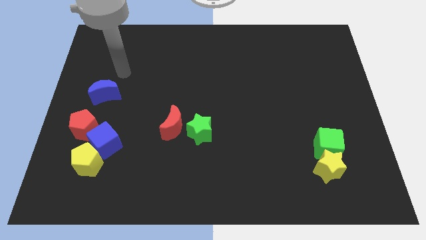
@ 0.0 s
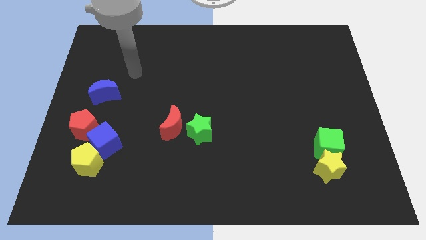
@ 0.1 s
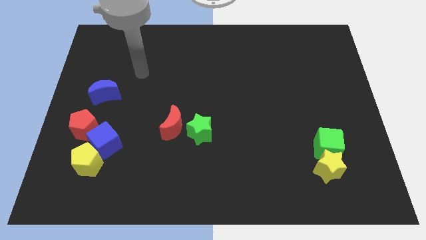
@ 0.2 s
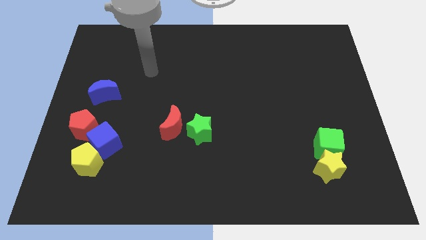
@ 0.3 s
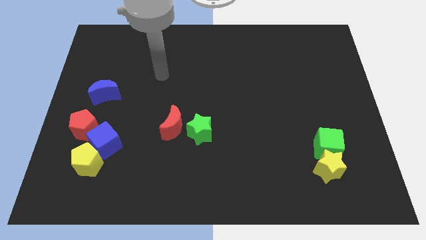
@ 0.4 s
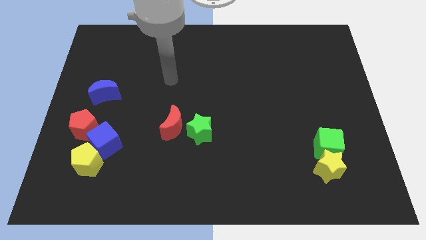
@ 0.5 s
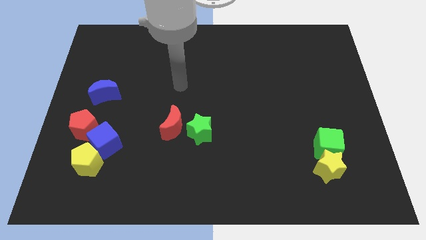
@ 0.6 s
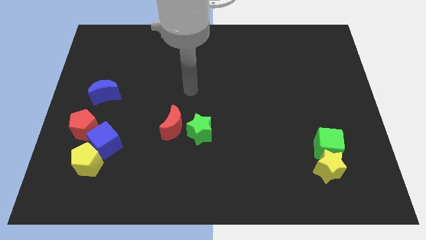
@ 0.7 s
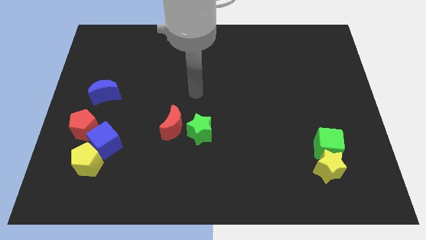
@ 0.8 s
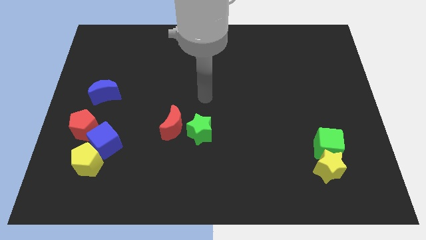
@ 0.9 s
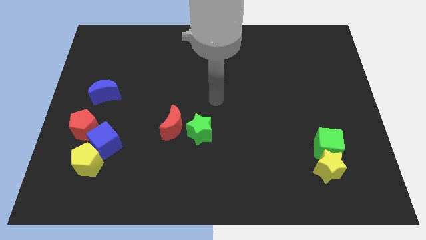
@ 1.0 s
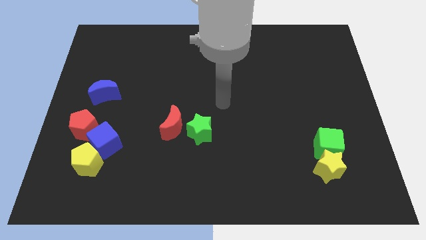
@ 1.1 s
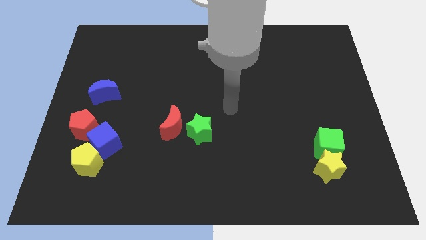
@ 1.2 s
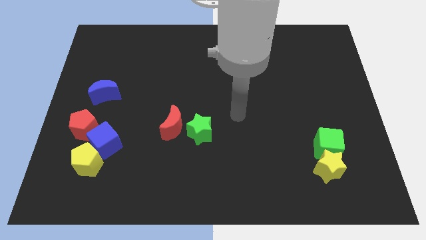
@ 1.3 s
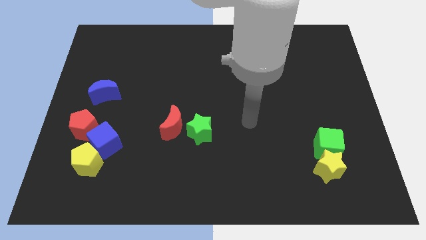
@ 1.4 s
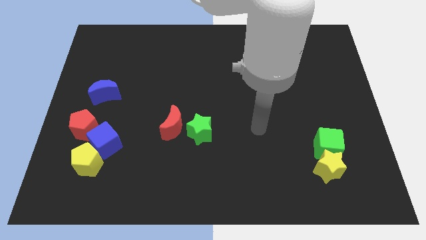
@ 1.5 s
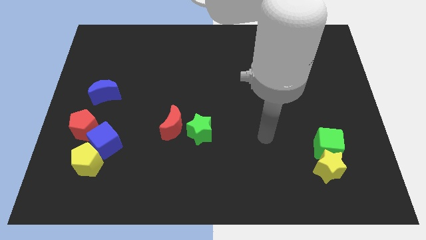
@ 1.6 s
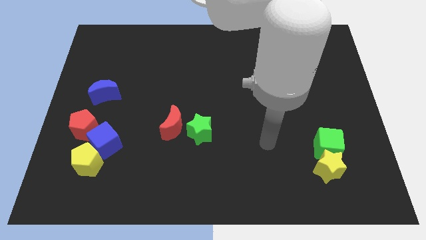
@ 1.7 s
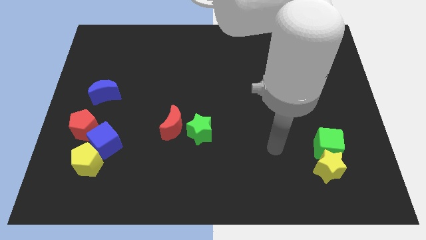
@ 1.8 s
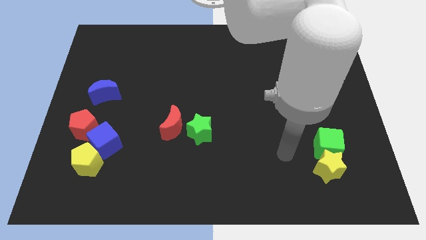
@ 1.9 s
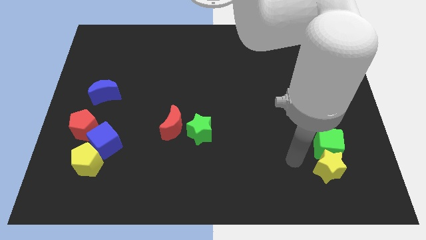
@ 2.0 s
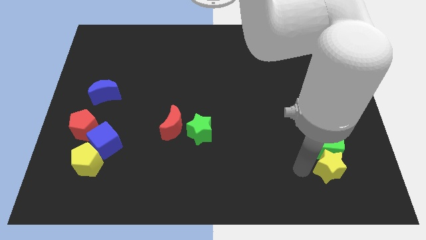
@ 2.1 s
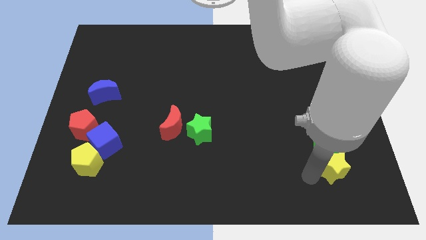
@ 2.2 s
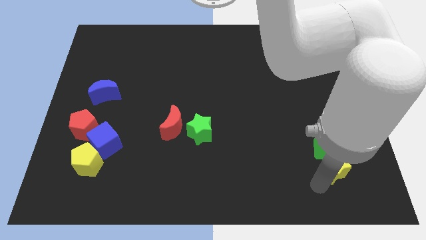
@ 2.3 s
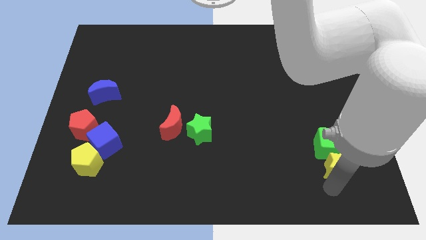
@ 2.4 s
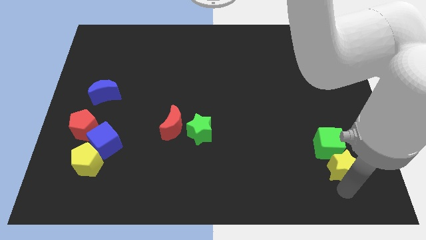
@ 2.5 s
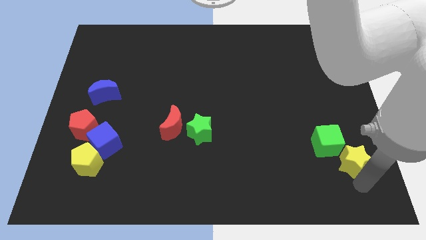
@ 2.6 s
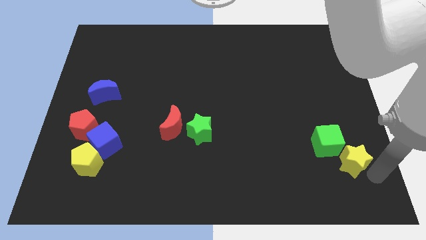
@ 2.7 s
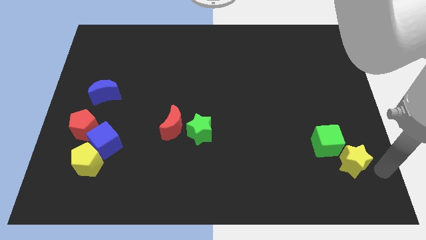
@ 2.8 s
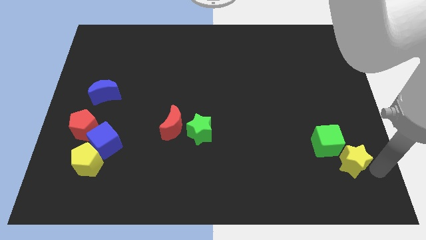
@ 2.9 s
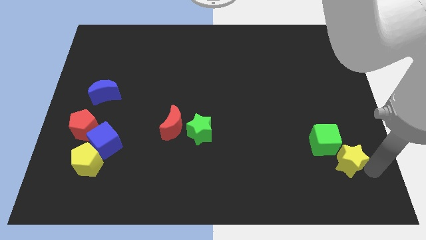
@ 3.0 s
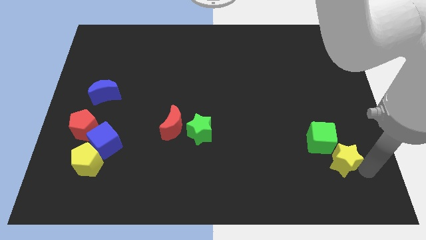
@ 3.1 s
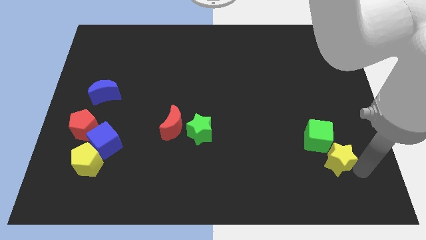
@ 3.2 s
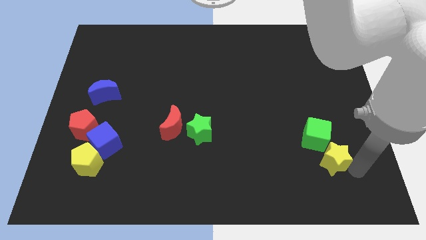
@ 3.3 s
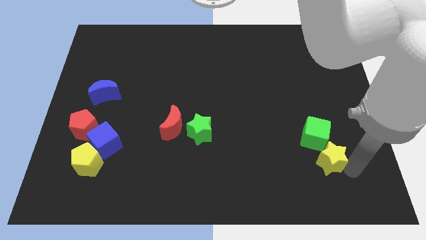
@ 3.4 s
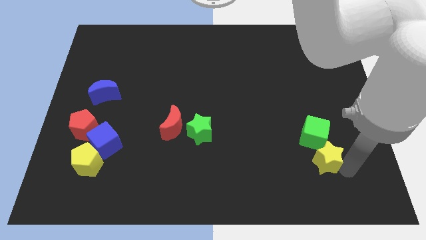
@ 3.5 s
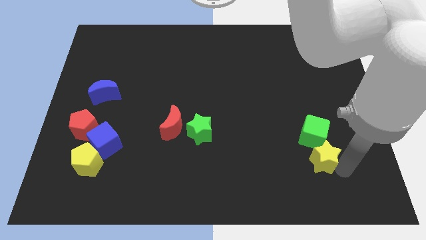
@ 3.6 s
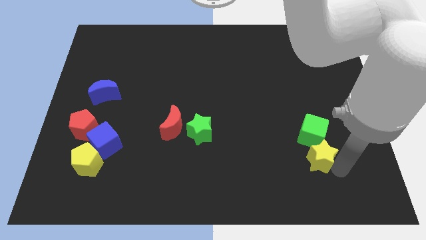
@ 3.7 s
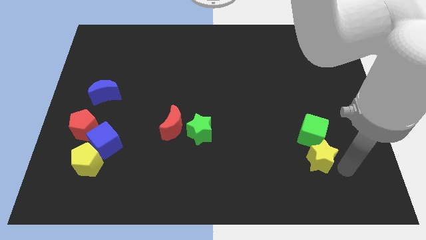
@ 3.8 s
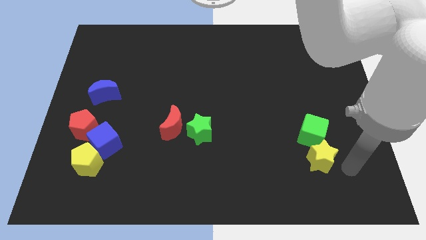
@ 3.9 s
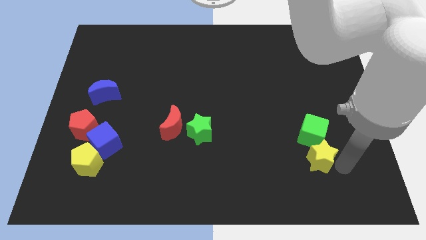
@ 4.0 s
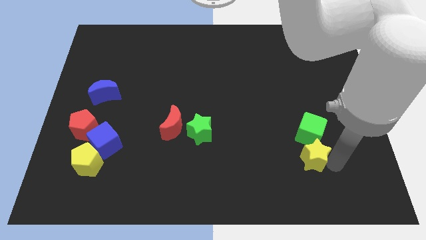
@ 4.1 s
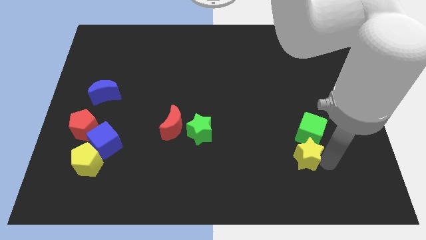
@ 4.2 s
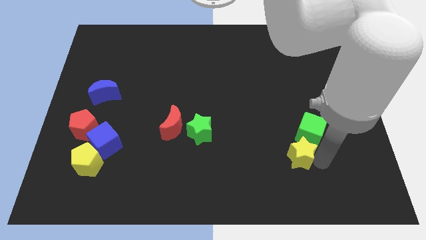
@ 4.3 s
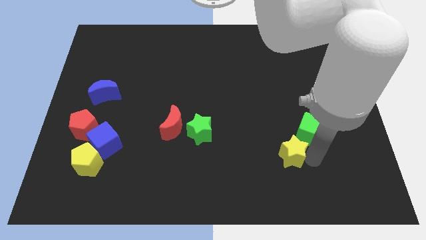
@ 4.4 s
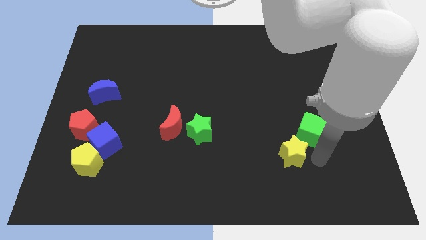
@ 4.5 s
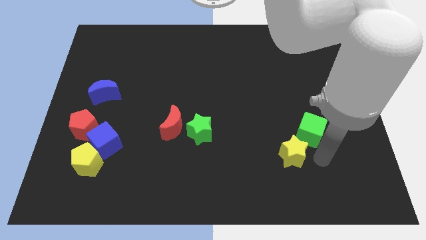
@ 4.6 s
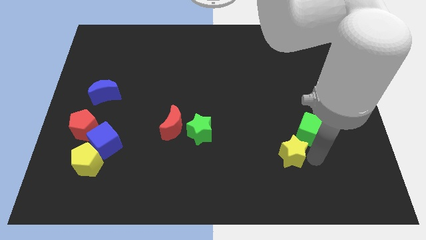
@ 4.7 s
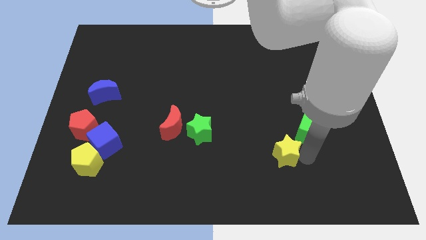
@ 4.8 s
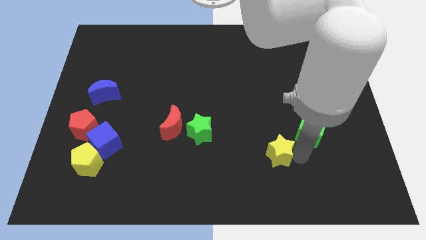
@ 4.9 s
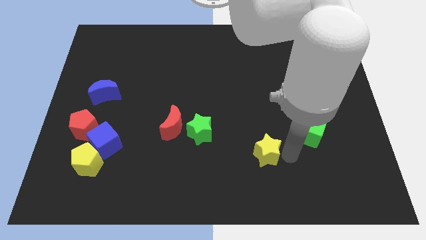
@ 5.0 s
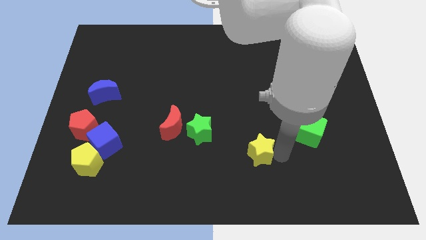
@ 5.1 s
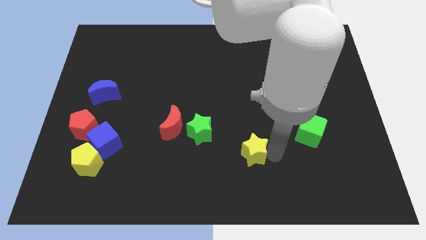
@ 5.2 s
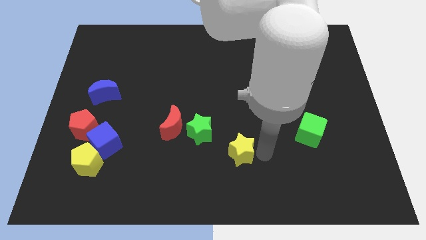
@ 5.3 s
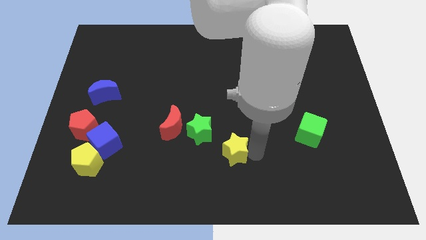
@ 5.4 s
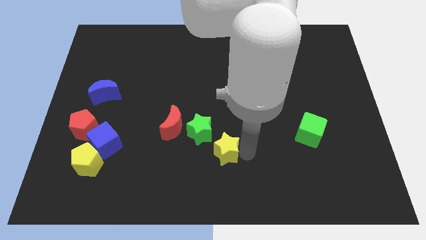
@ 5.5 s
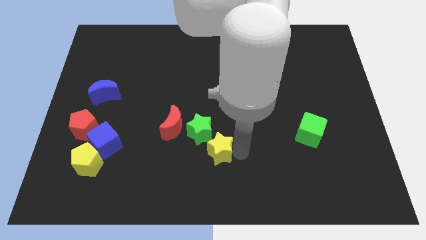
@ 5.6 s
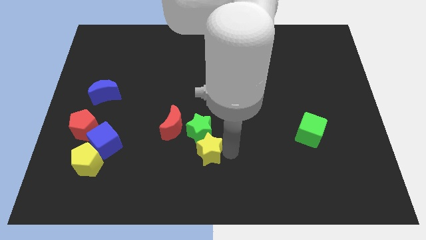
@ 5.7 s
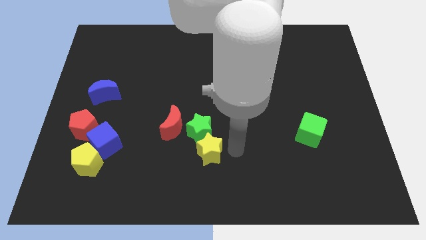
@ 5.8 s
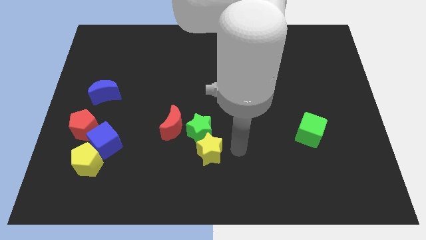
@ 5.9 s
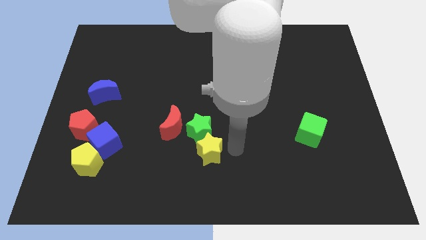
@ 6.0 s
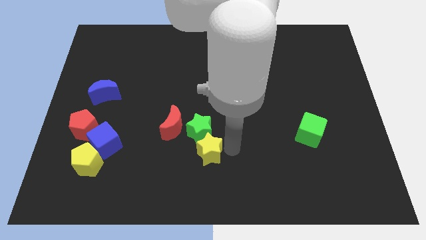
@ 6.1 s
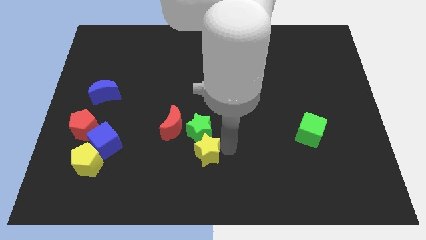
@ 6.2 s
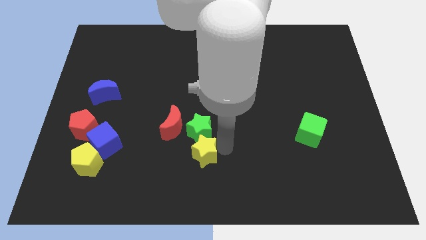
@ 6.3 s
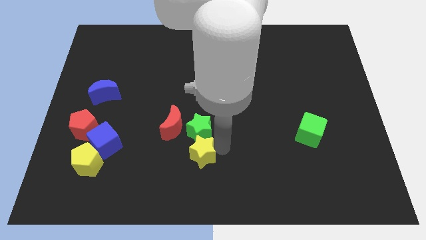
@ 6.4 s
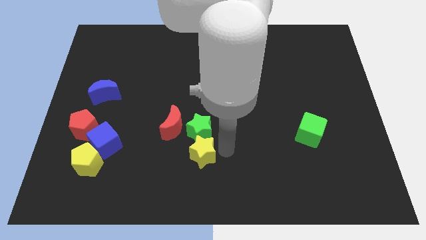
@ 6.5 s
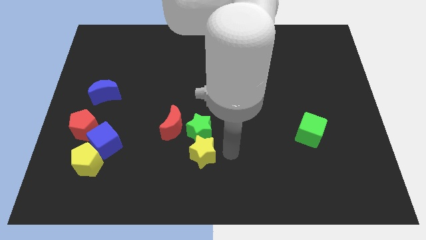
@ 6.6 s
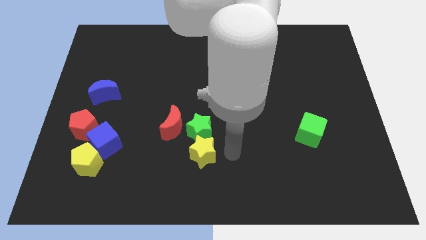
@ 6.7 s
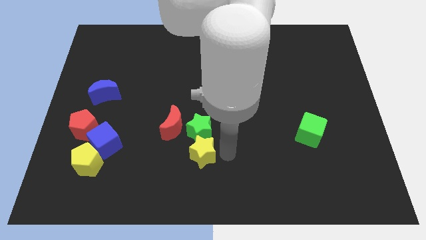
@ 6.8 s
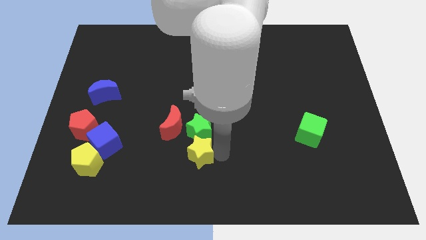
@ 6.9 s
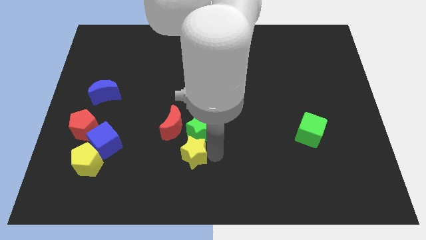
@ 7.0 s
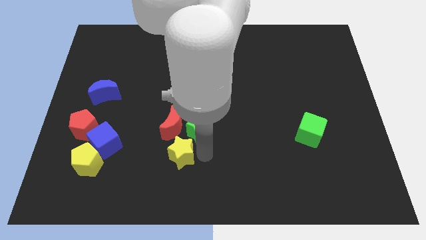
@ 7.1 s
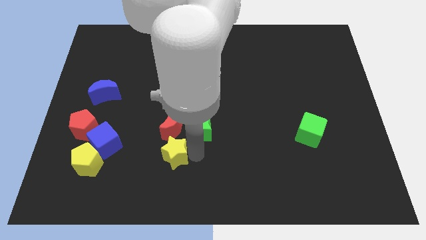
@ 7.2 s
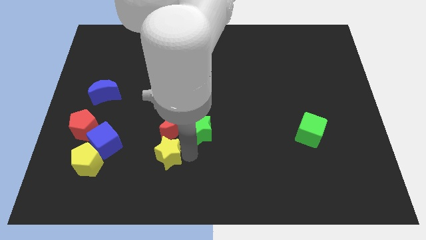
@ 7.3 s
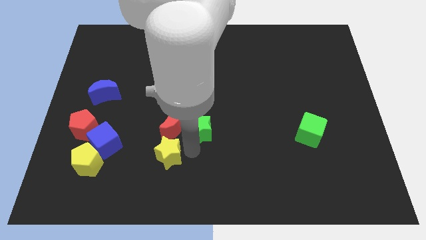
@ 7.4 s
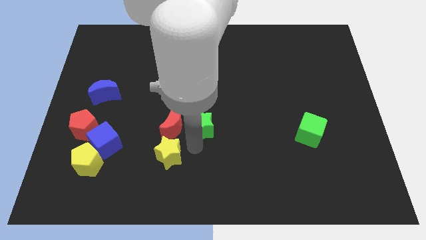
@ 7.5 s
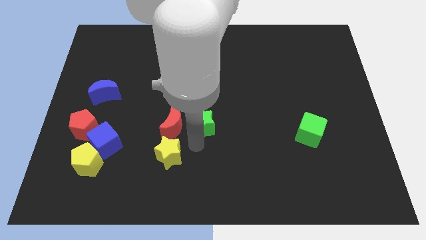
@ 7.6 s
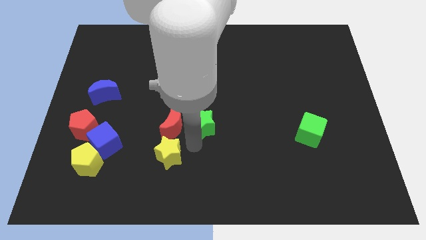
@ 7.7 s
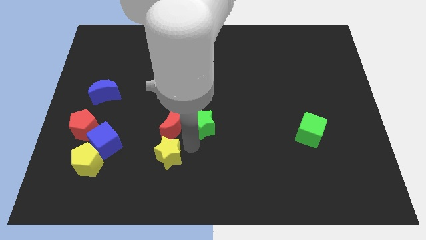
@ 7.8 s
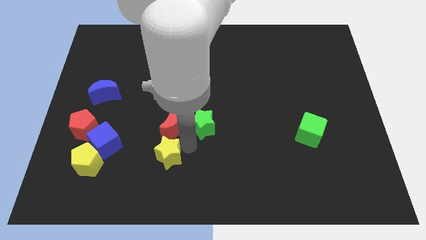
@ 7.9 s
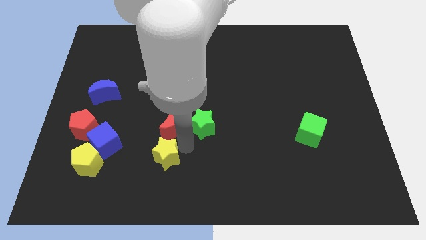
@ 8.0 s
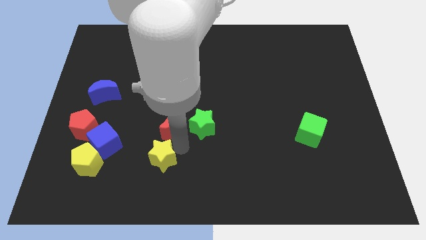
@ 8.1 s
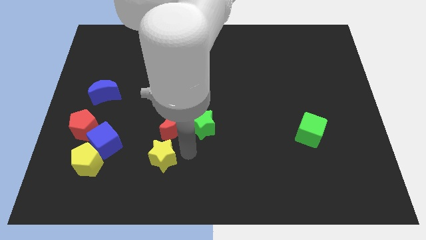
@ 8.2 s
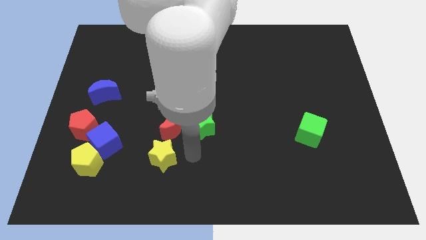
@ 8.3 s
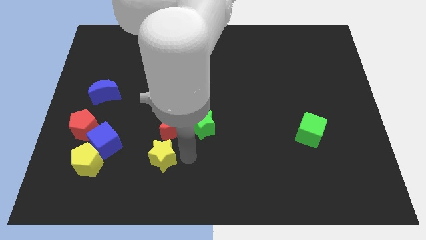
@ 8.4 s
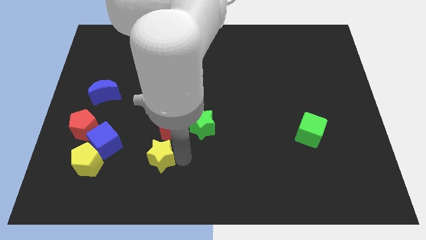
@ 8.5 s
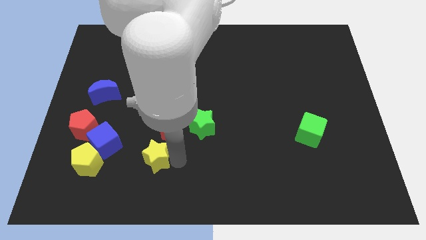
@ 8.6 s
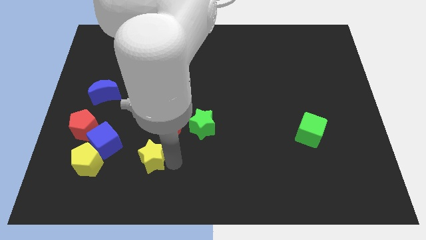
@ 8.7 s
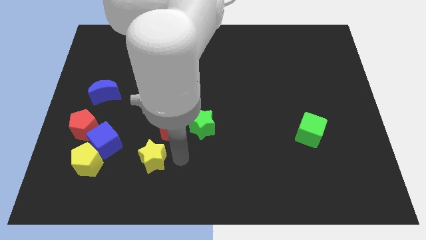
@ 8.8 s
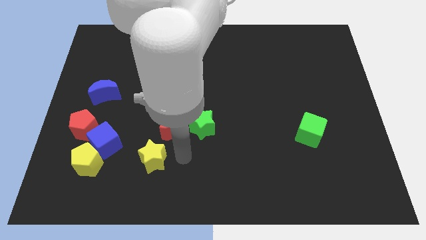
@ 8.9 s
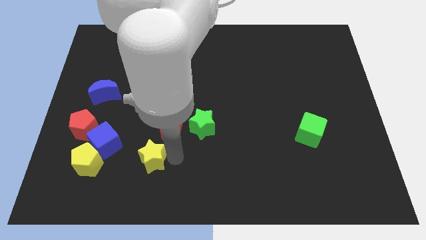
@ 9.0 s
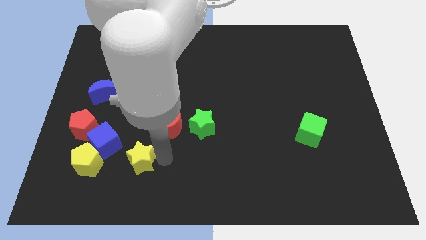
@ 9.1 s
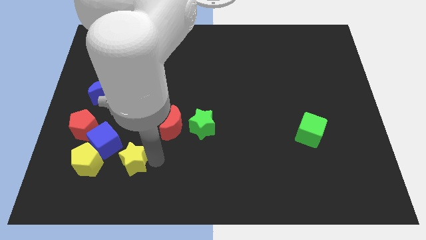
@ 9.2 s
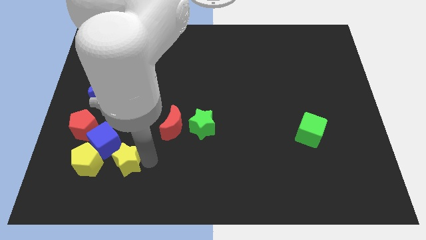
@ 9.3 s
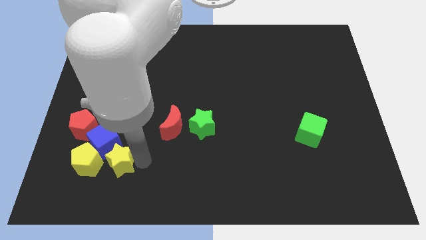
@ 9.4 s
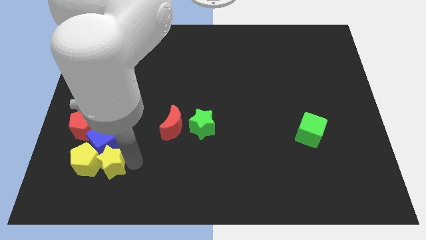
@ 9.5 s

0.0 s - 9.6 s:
push the yellow star next to the yellow pentagon
